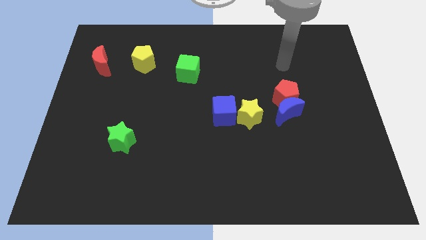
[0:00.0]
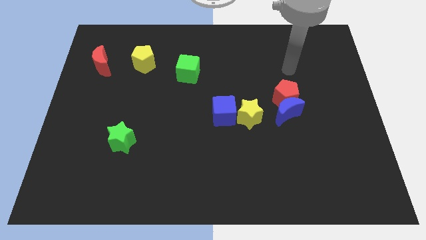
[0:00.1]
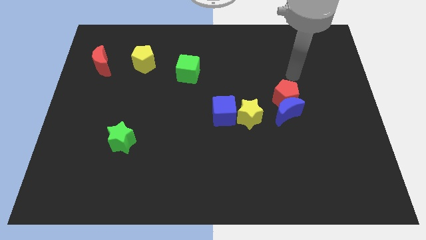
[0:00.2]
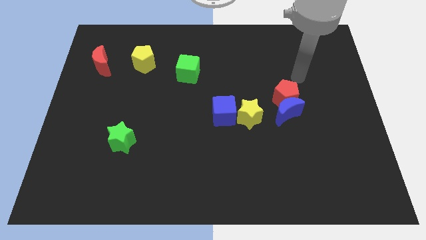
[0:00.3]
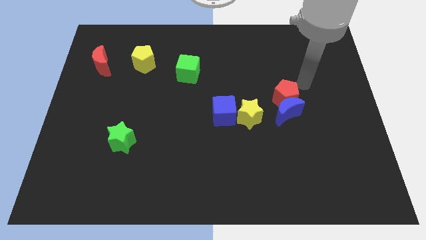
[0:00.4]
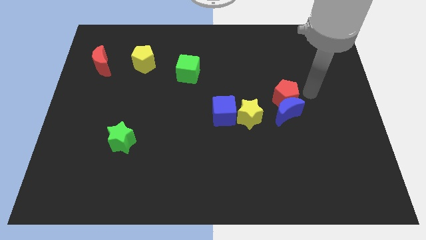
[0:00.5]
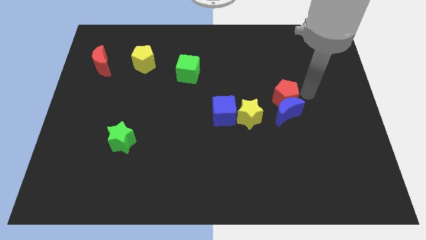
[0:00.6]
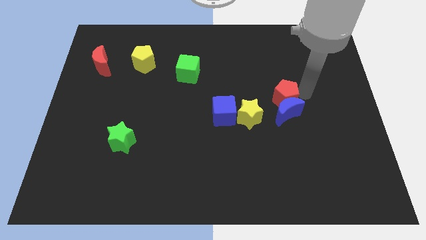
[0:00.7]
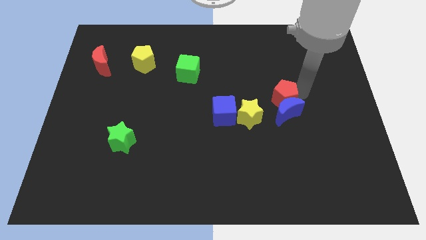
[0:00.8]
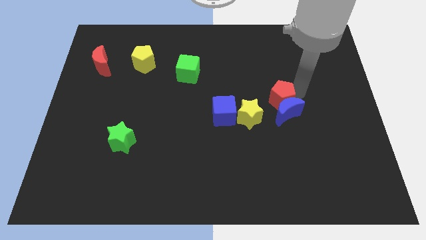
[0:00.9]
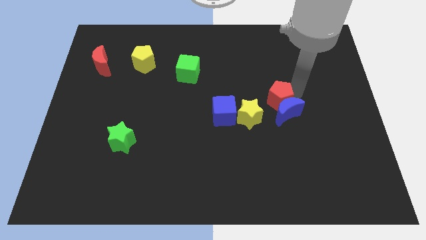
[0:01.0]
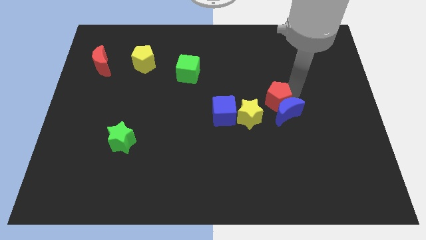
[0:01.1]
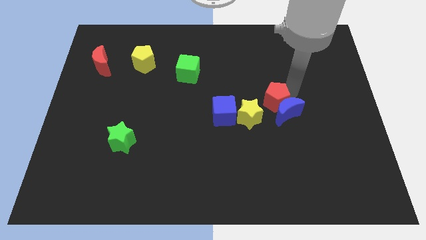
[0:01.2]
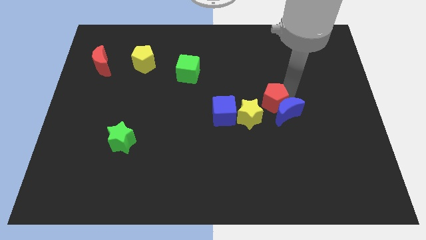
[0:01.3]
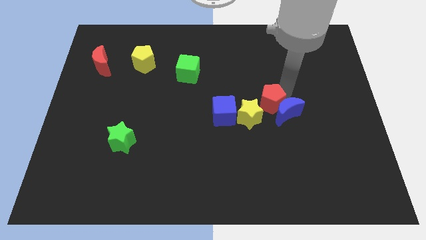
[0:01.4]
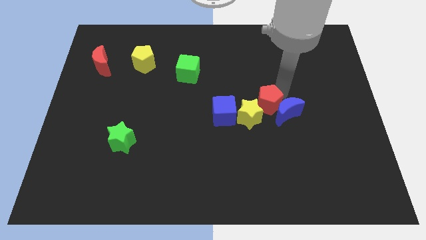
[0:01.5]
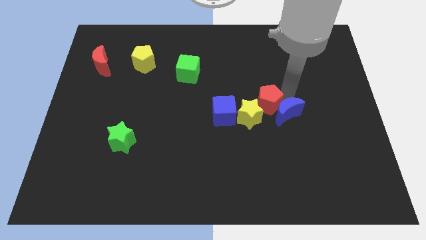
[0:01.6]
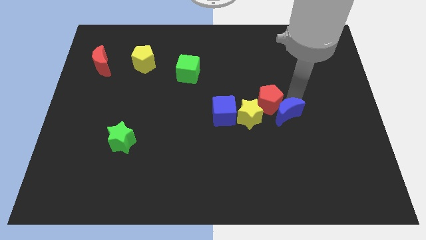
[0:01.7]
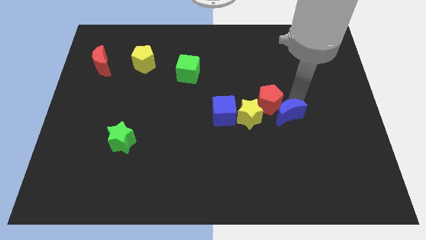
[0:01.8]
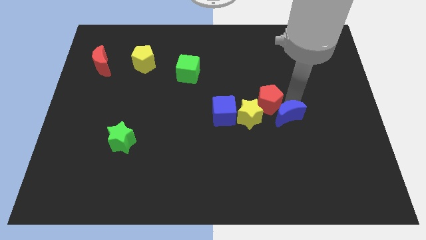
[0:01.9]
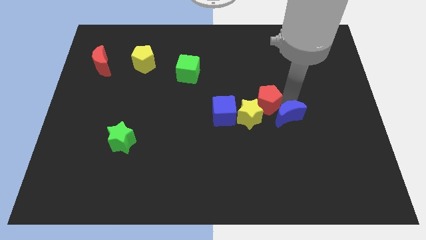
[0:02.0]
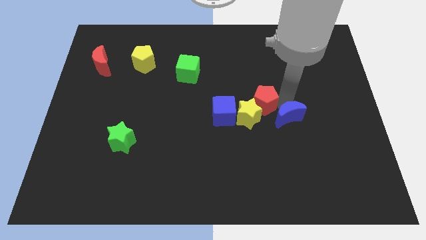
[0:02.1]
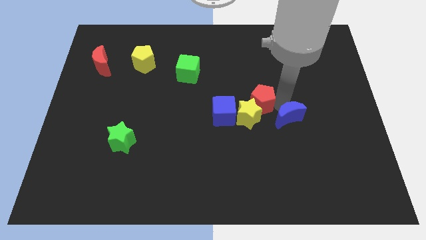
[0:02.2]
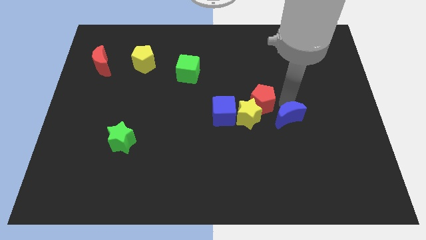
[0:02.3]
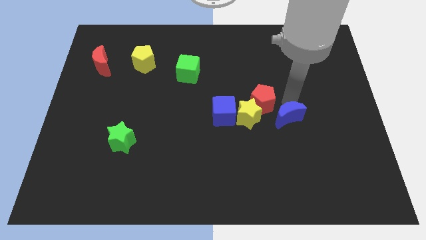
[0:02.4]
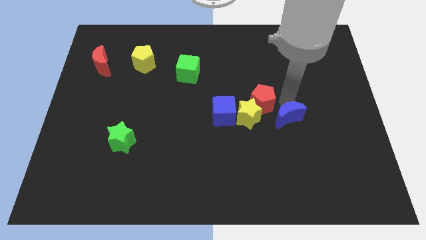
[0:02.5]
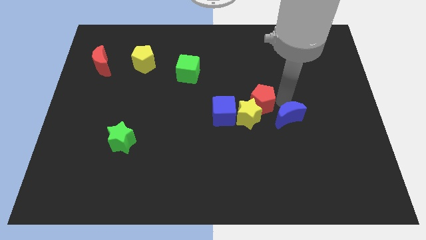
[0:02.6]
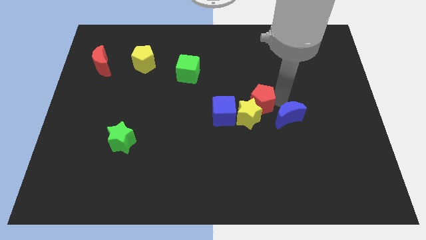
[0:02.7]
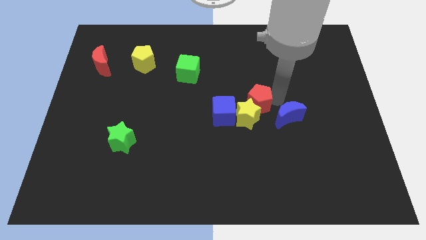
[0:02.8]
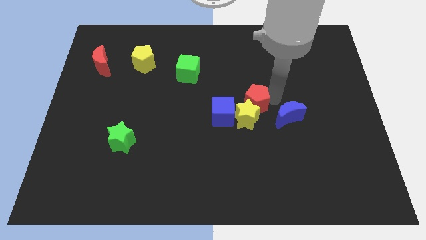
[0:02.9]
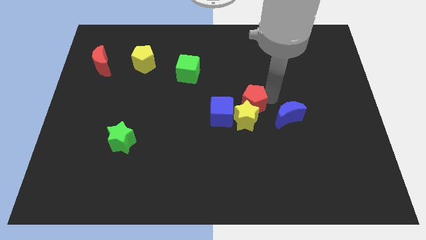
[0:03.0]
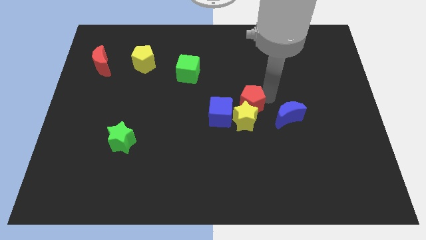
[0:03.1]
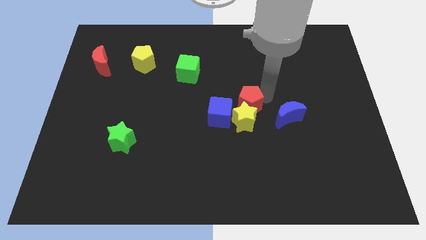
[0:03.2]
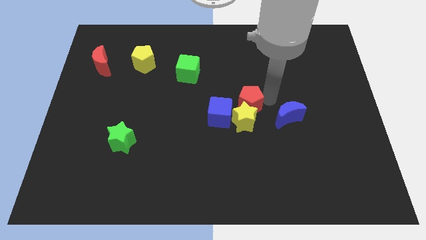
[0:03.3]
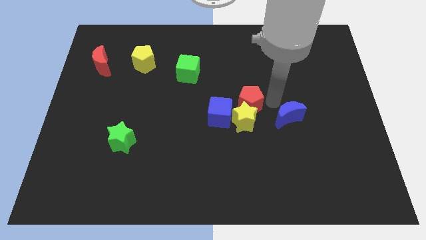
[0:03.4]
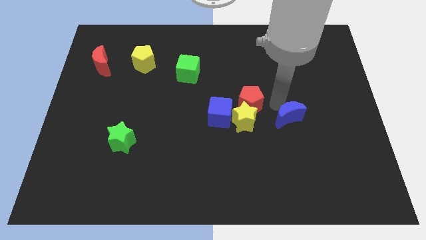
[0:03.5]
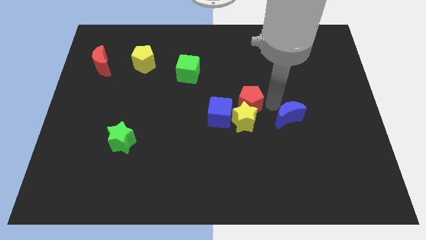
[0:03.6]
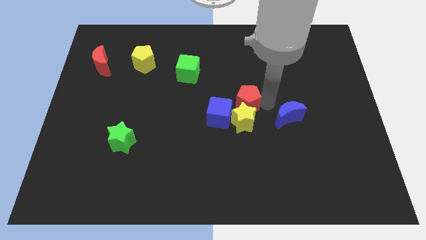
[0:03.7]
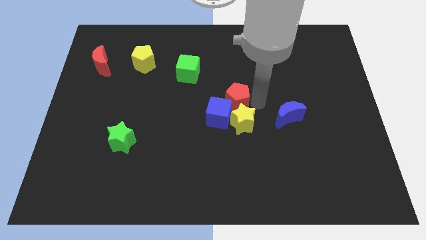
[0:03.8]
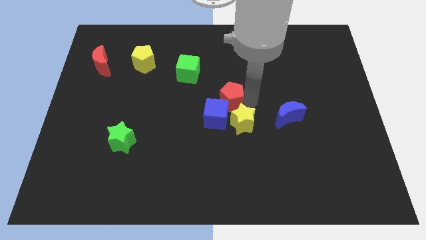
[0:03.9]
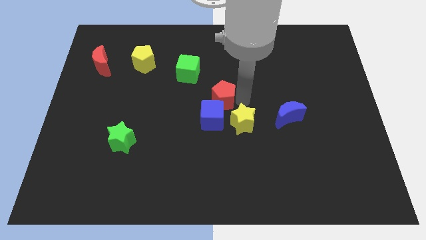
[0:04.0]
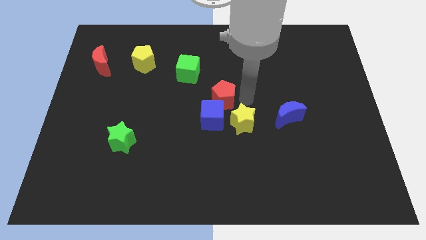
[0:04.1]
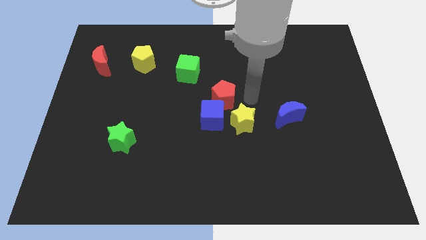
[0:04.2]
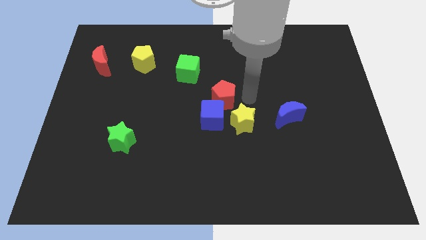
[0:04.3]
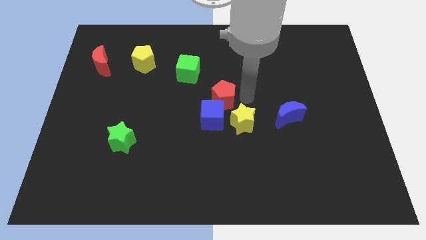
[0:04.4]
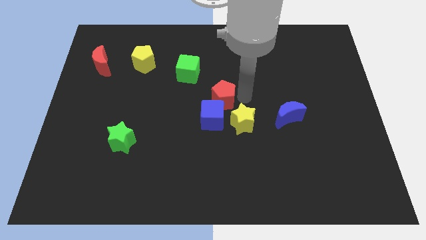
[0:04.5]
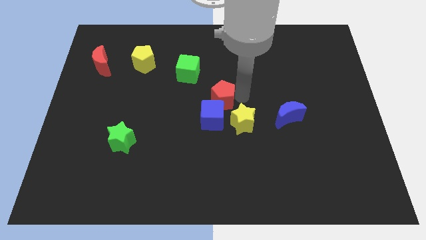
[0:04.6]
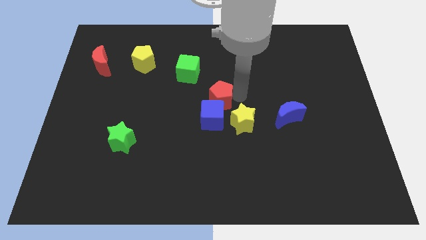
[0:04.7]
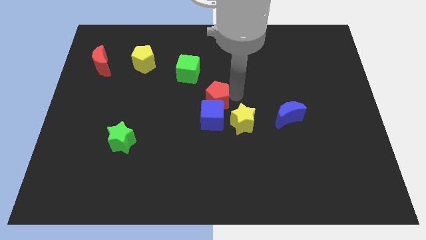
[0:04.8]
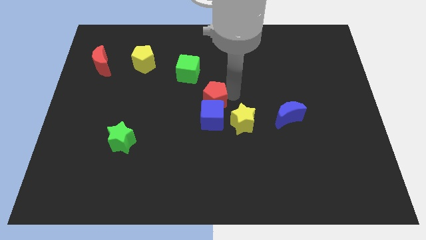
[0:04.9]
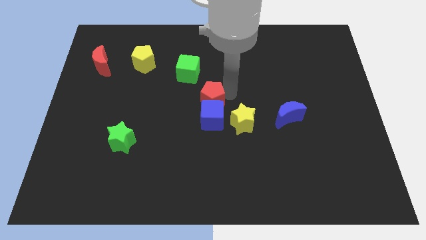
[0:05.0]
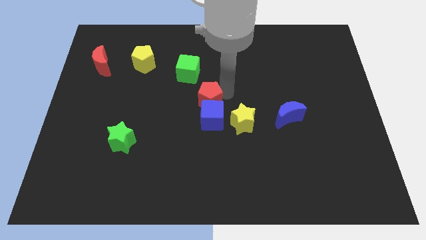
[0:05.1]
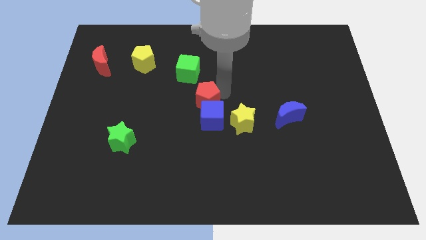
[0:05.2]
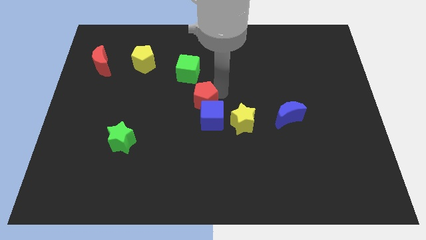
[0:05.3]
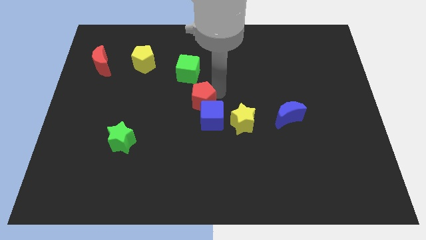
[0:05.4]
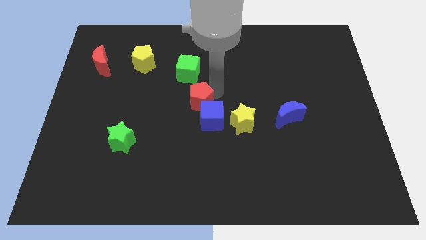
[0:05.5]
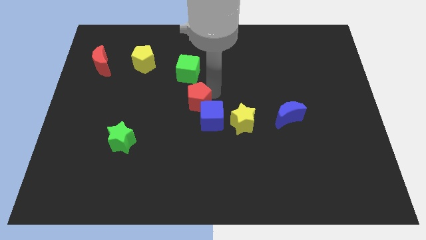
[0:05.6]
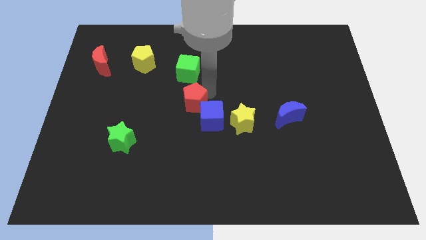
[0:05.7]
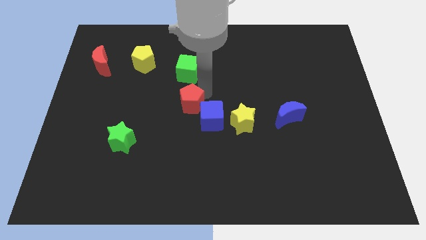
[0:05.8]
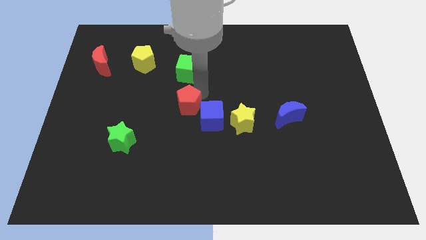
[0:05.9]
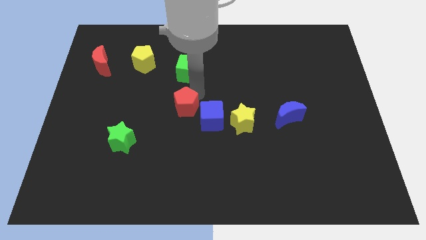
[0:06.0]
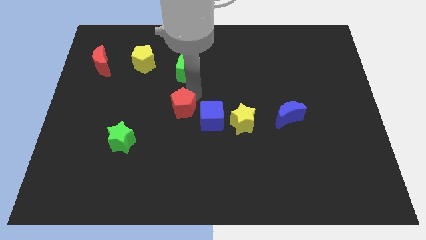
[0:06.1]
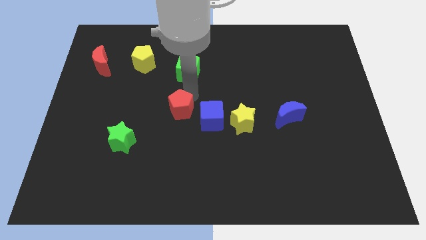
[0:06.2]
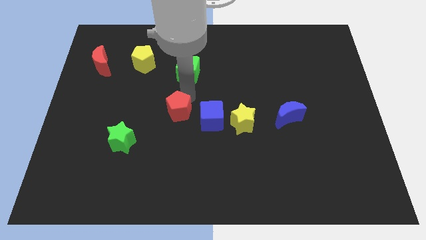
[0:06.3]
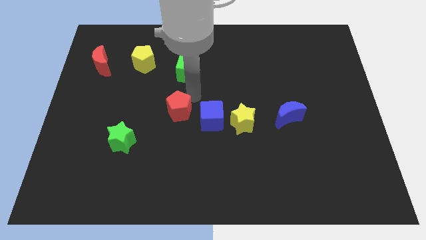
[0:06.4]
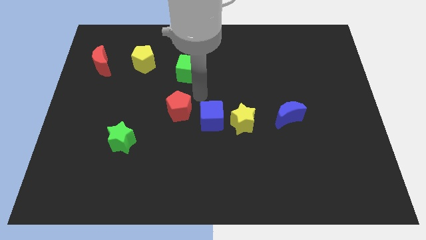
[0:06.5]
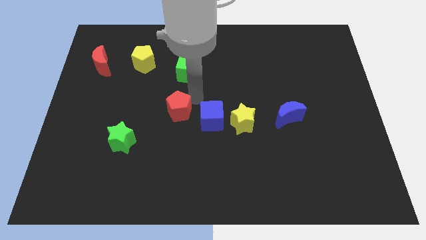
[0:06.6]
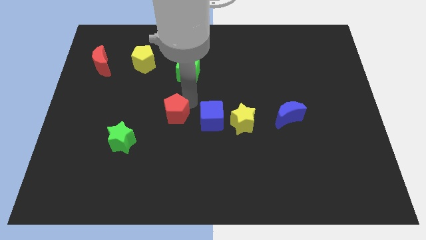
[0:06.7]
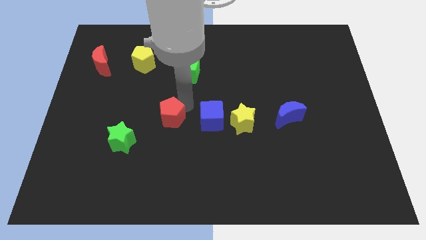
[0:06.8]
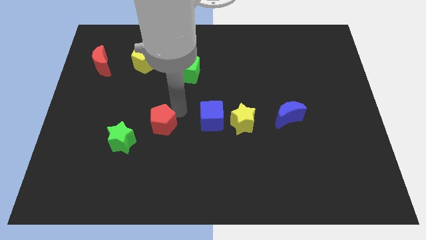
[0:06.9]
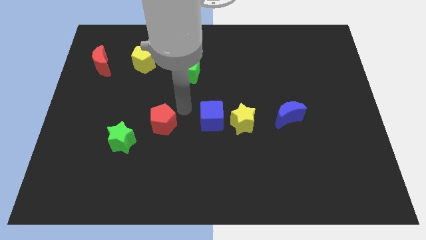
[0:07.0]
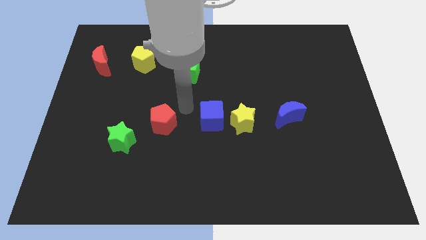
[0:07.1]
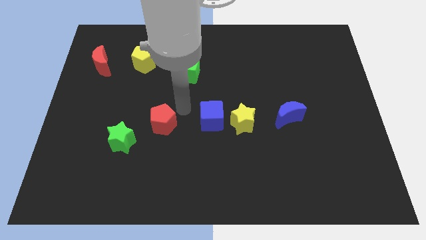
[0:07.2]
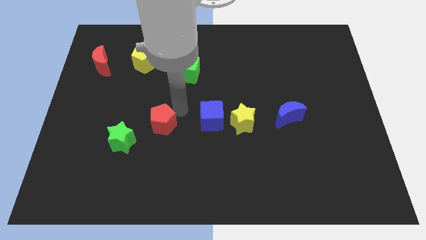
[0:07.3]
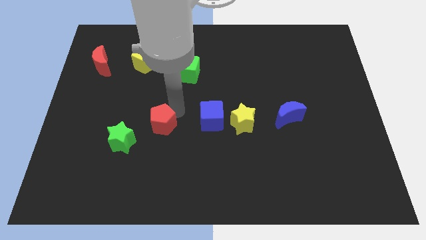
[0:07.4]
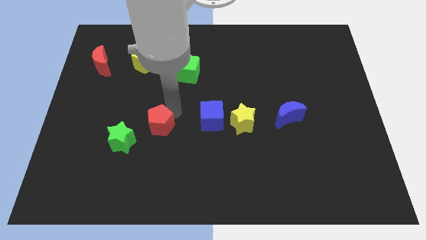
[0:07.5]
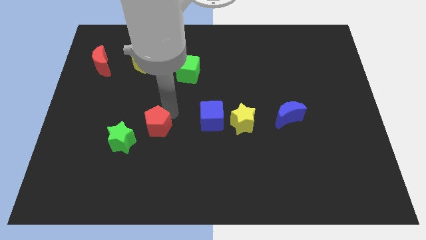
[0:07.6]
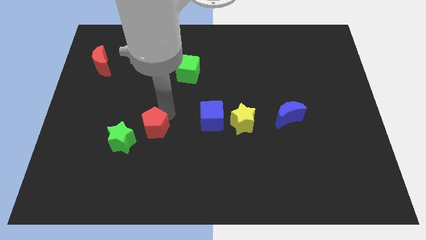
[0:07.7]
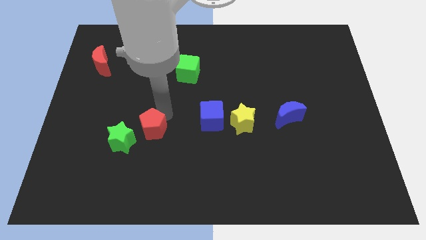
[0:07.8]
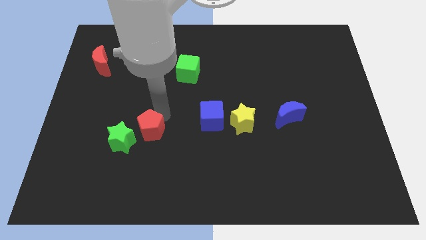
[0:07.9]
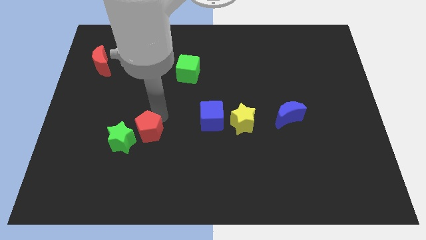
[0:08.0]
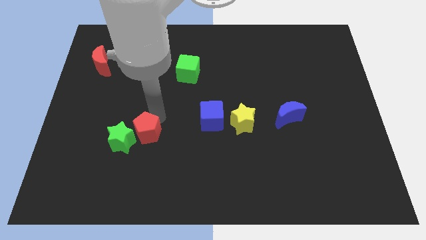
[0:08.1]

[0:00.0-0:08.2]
push the red pentagon next to the green star
